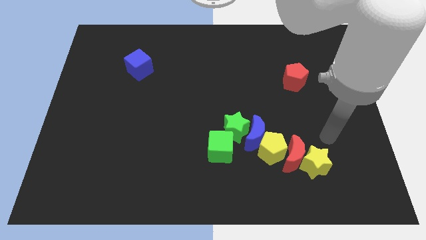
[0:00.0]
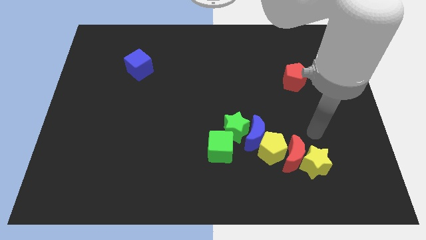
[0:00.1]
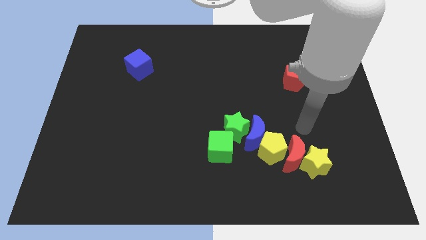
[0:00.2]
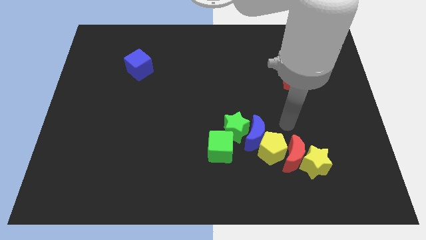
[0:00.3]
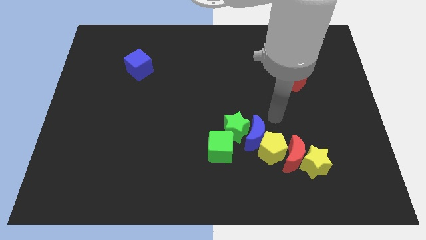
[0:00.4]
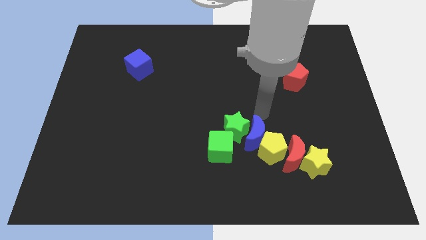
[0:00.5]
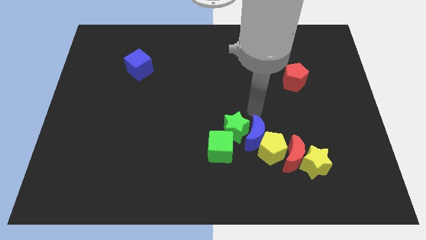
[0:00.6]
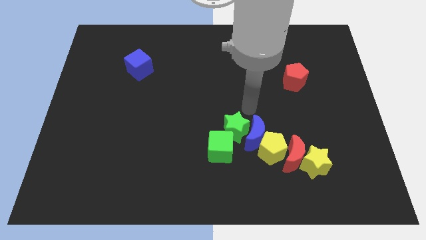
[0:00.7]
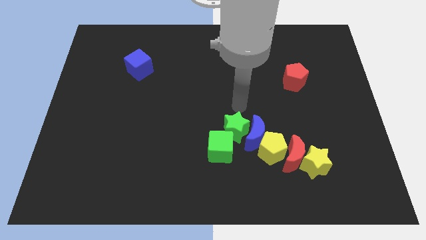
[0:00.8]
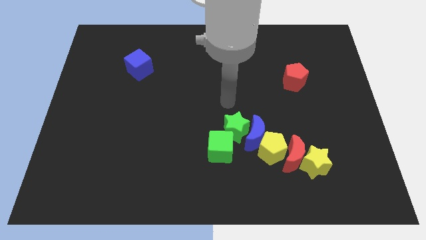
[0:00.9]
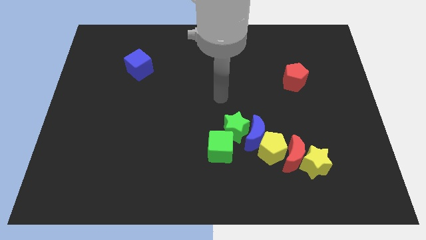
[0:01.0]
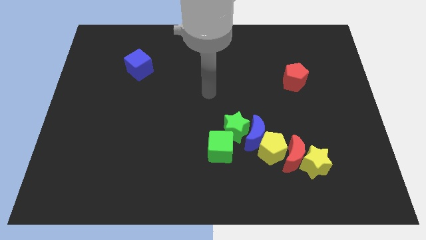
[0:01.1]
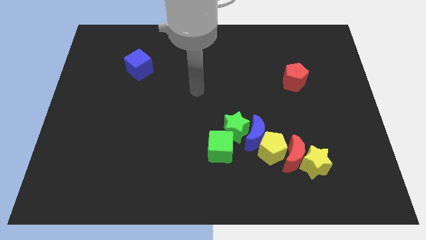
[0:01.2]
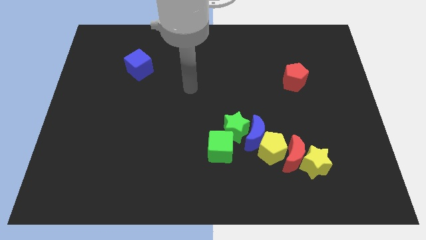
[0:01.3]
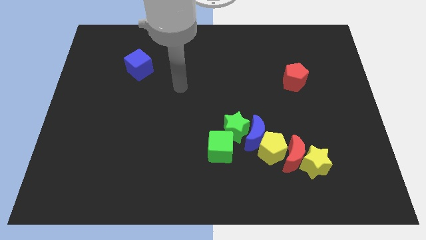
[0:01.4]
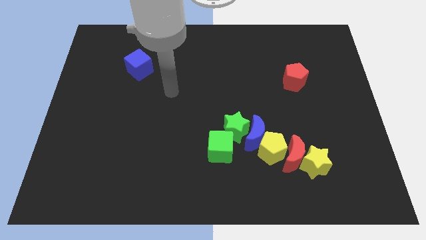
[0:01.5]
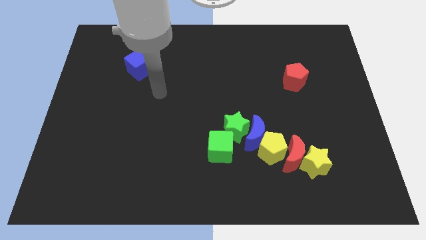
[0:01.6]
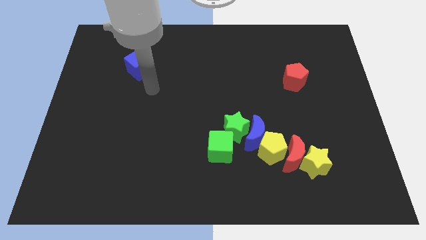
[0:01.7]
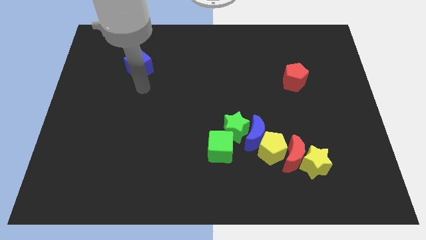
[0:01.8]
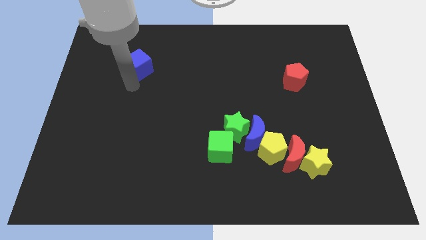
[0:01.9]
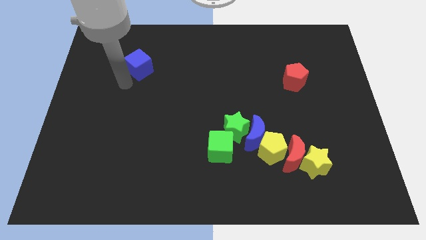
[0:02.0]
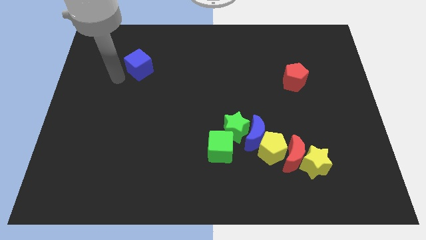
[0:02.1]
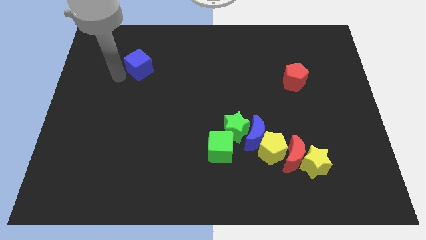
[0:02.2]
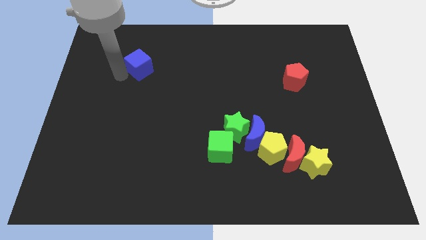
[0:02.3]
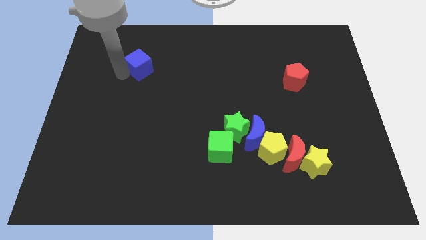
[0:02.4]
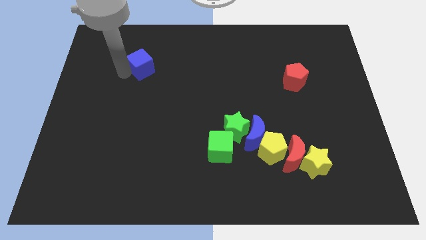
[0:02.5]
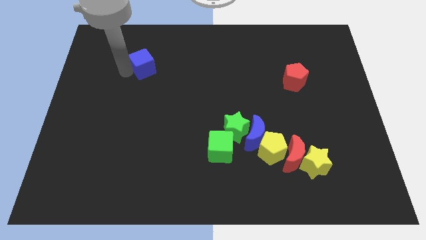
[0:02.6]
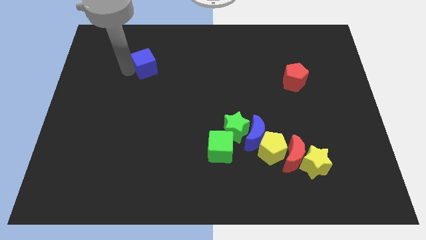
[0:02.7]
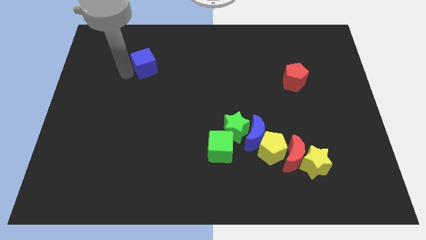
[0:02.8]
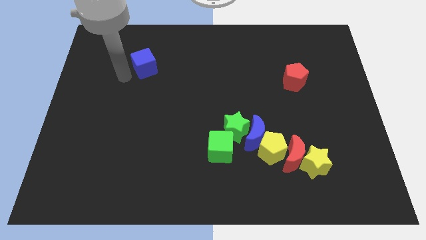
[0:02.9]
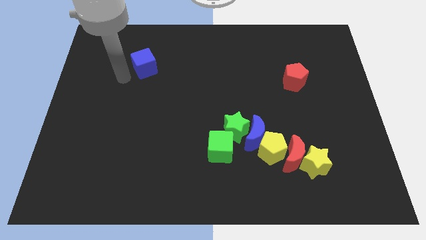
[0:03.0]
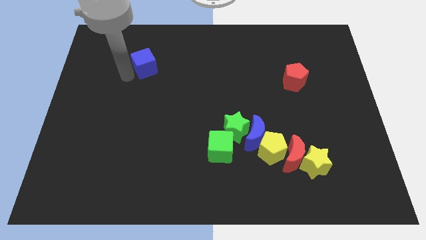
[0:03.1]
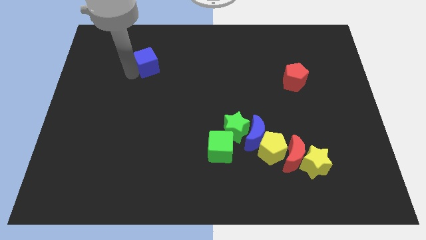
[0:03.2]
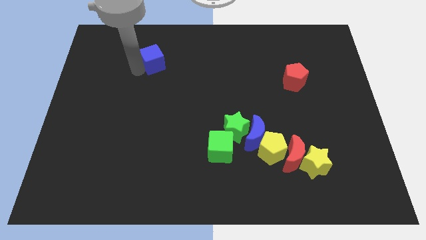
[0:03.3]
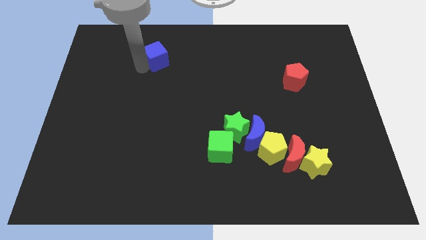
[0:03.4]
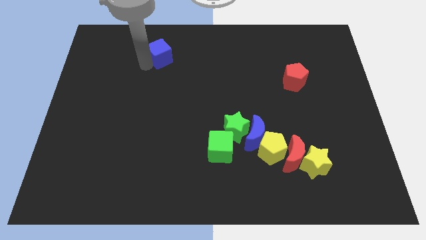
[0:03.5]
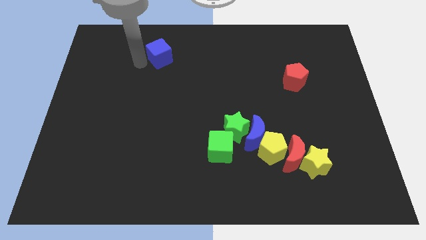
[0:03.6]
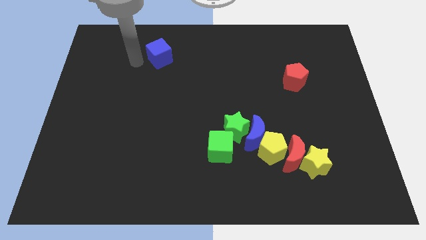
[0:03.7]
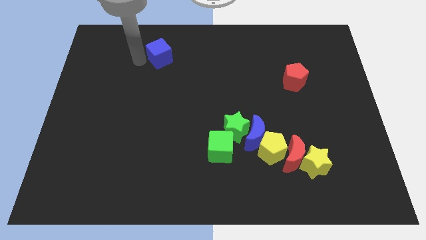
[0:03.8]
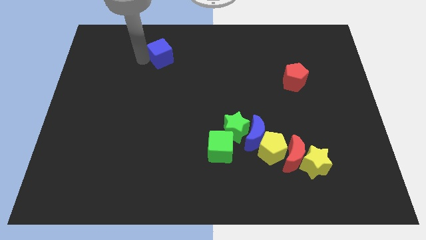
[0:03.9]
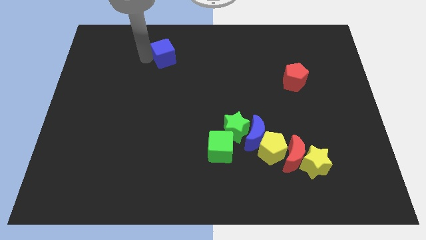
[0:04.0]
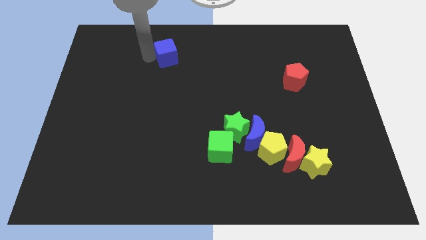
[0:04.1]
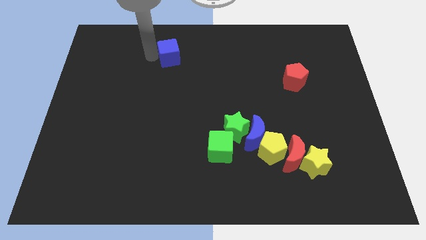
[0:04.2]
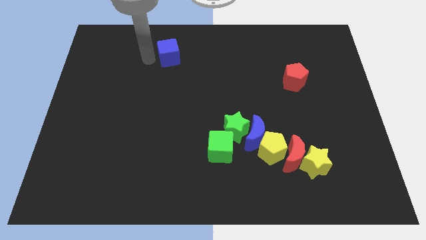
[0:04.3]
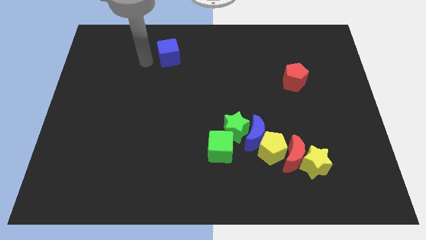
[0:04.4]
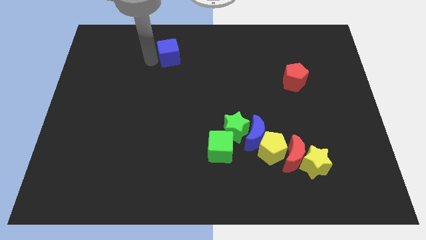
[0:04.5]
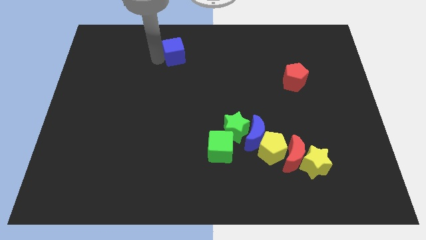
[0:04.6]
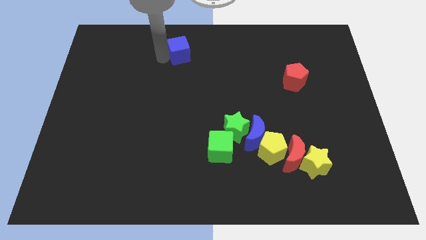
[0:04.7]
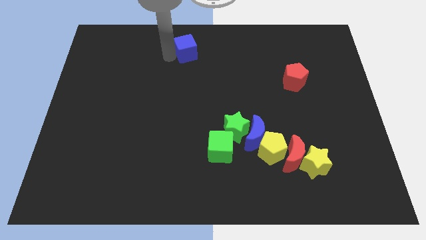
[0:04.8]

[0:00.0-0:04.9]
push the blue cube to the towards your base

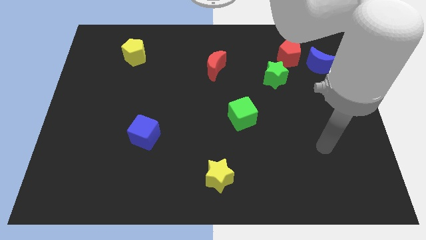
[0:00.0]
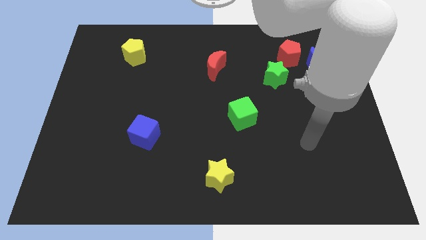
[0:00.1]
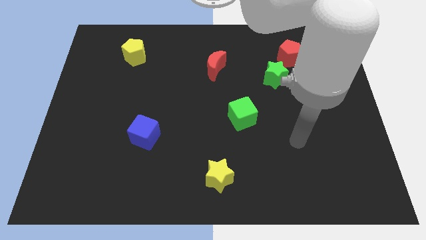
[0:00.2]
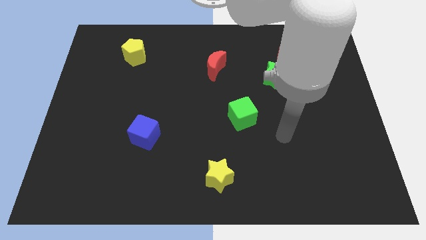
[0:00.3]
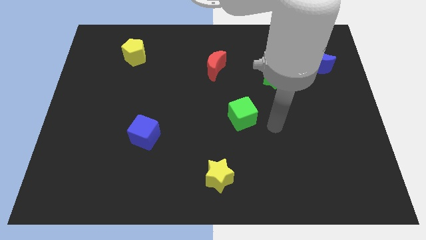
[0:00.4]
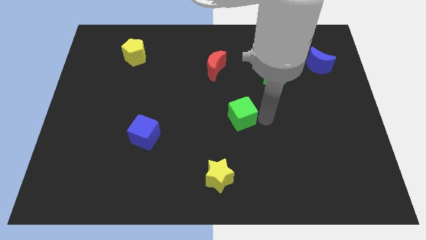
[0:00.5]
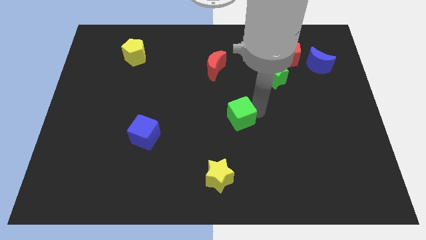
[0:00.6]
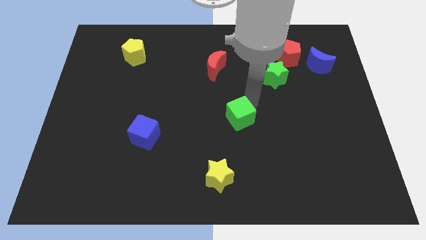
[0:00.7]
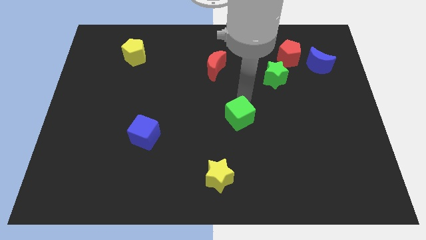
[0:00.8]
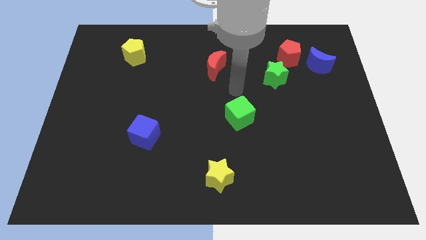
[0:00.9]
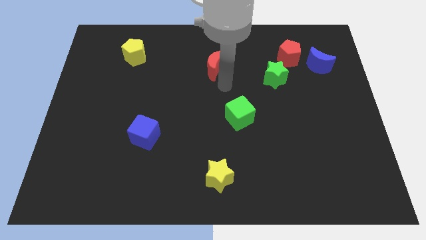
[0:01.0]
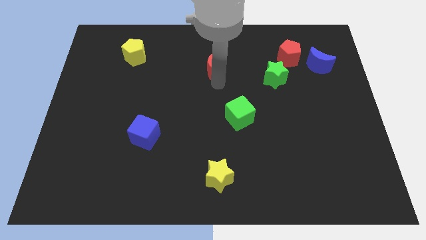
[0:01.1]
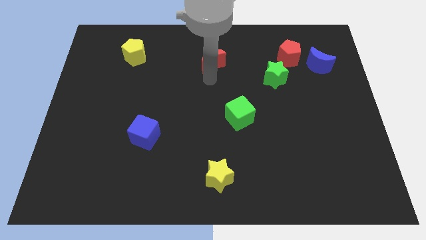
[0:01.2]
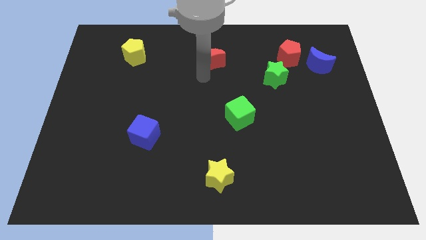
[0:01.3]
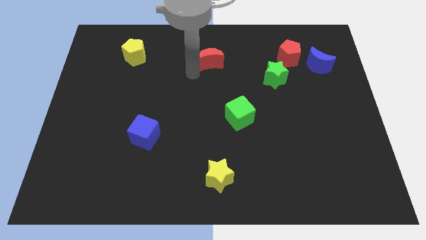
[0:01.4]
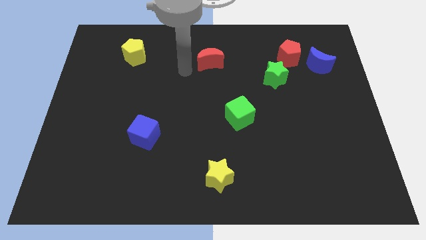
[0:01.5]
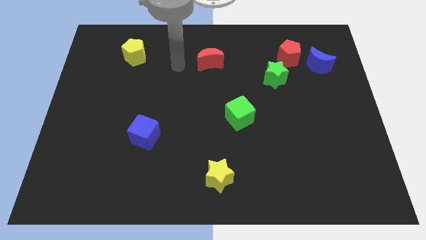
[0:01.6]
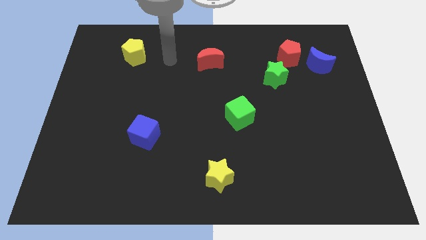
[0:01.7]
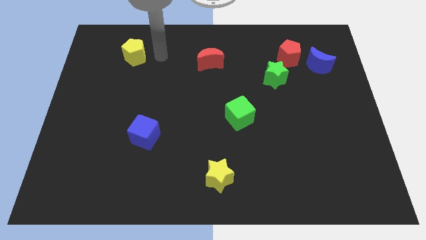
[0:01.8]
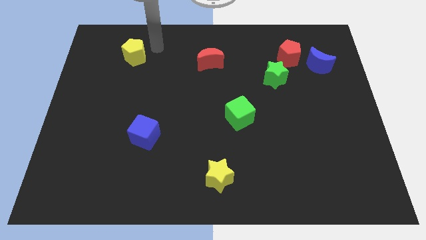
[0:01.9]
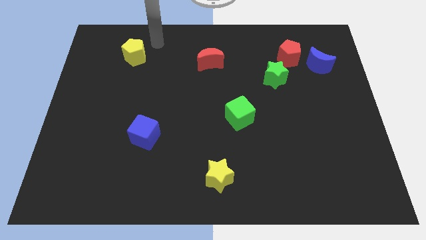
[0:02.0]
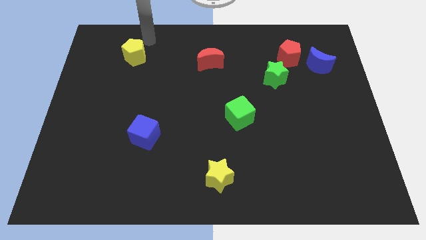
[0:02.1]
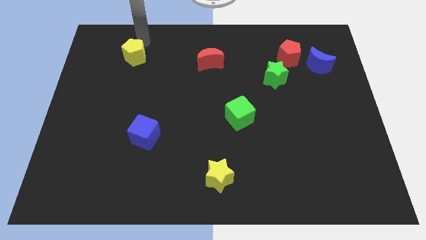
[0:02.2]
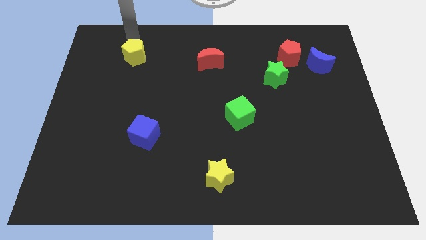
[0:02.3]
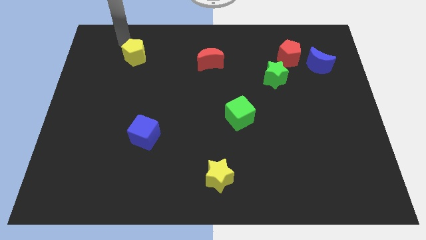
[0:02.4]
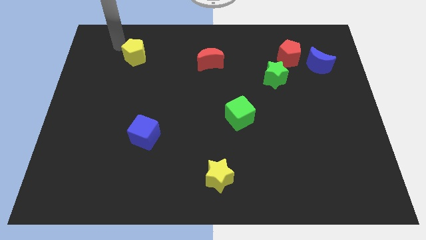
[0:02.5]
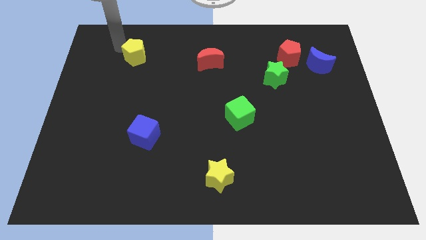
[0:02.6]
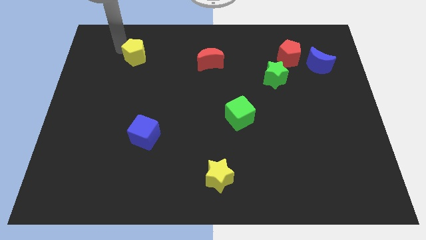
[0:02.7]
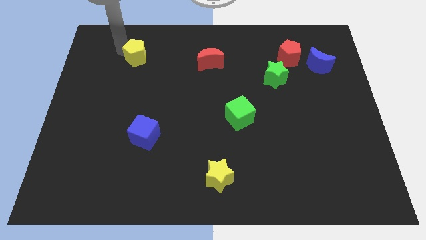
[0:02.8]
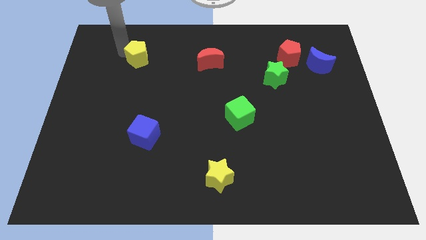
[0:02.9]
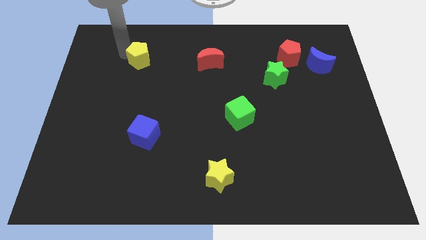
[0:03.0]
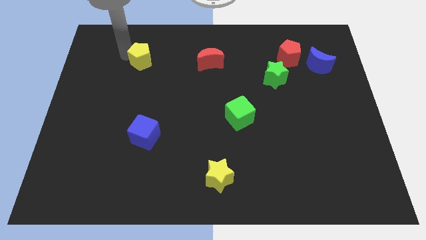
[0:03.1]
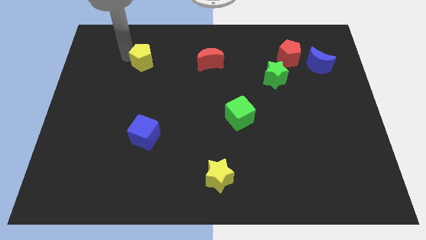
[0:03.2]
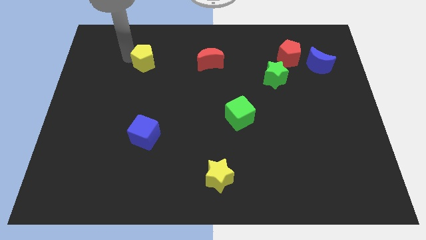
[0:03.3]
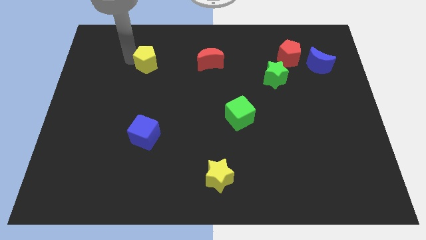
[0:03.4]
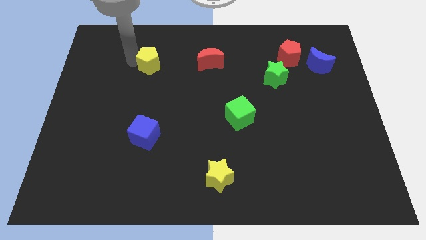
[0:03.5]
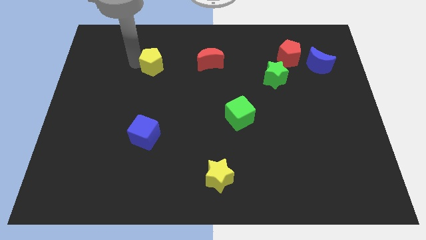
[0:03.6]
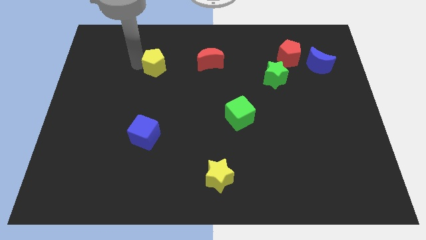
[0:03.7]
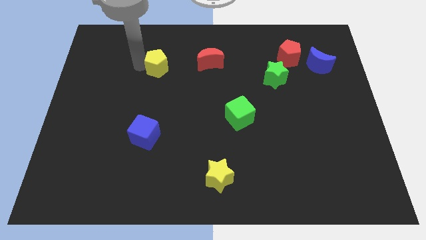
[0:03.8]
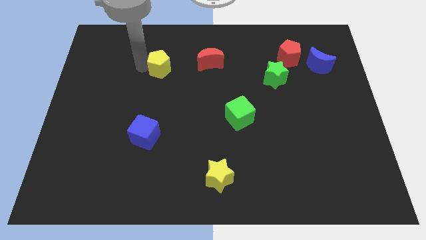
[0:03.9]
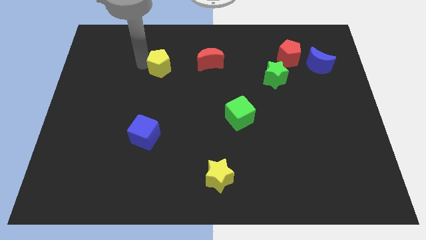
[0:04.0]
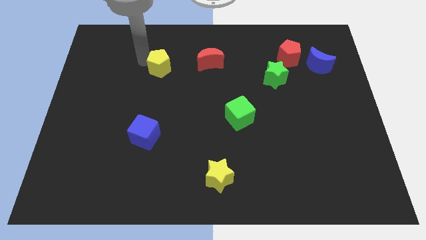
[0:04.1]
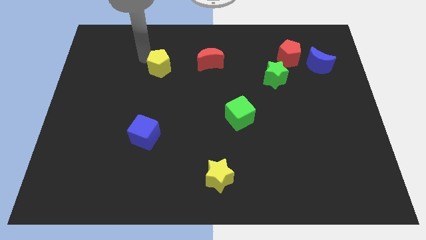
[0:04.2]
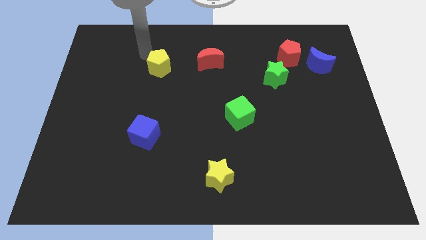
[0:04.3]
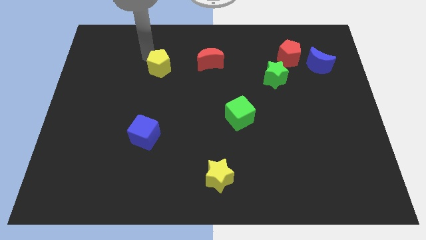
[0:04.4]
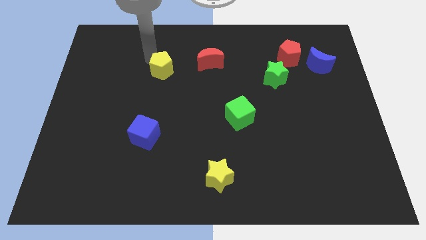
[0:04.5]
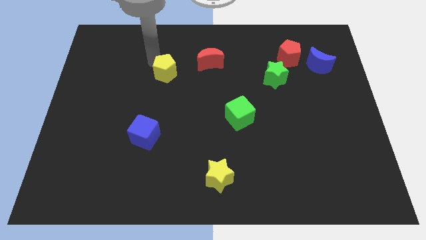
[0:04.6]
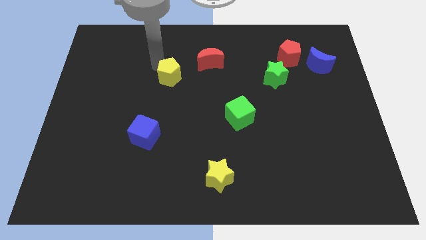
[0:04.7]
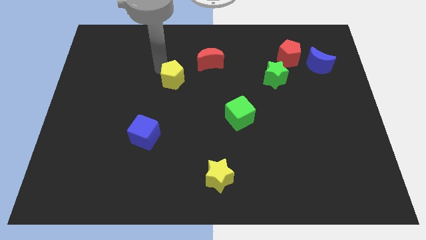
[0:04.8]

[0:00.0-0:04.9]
slide the yellow pentagon to the center
